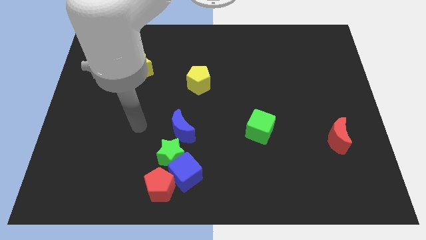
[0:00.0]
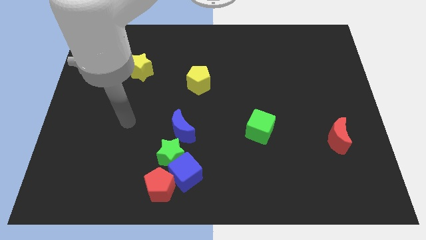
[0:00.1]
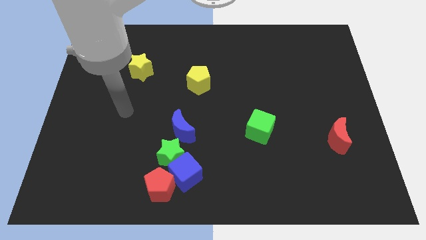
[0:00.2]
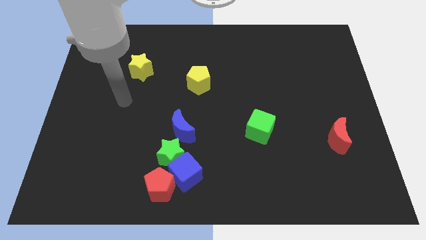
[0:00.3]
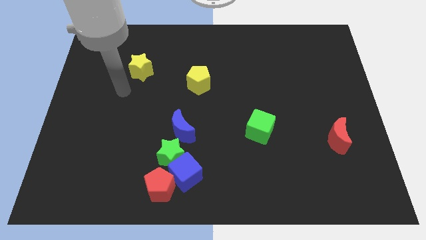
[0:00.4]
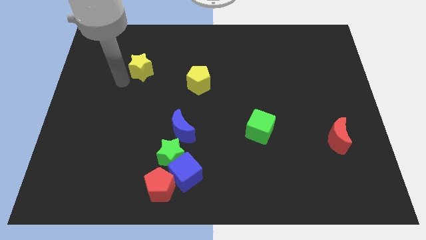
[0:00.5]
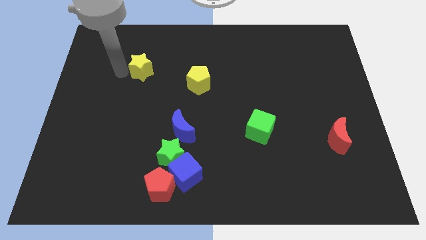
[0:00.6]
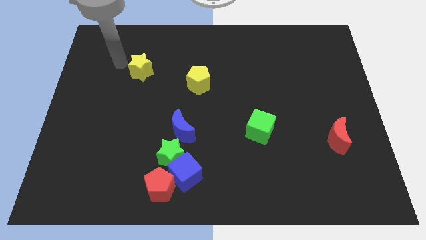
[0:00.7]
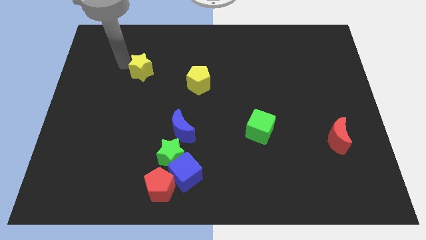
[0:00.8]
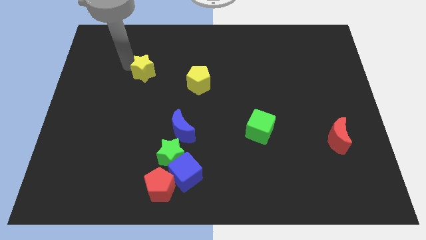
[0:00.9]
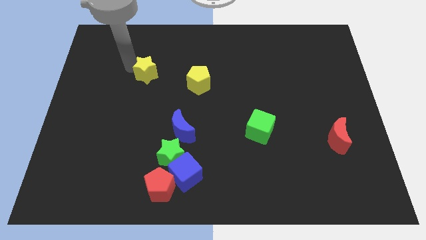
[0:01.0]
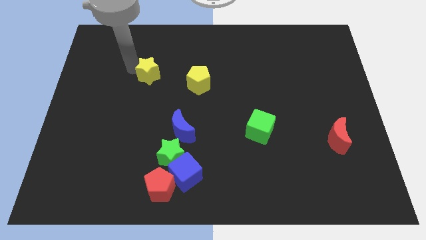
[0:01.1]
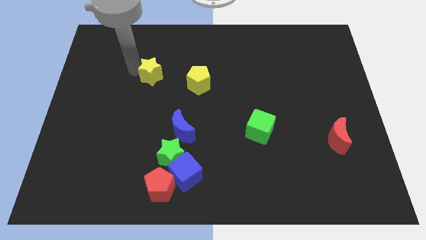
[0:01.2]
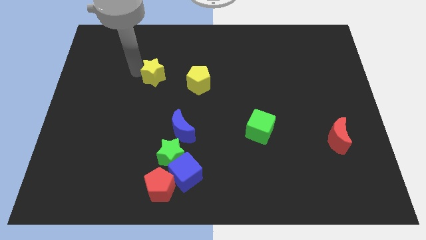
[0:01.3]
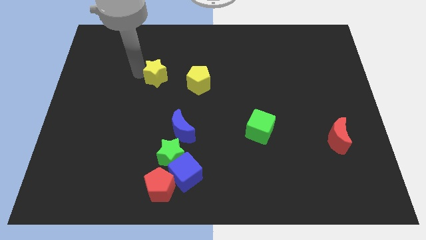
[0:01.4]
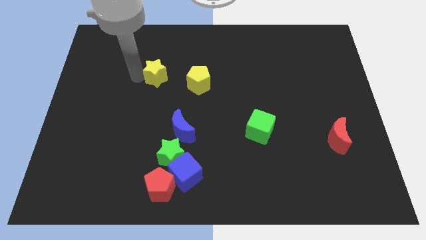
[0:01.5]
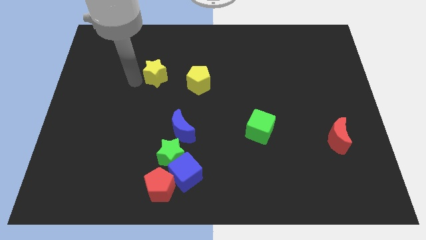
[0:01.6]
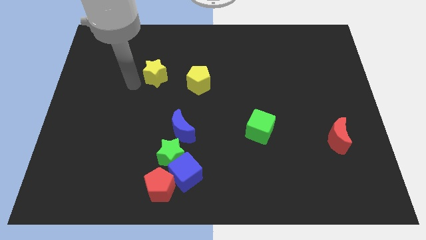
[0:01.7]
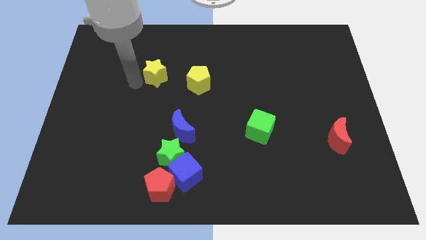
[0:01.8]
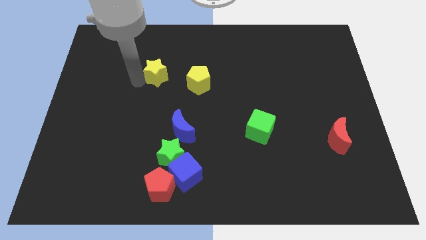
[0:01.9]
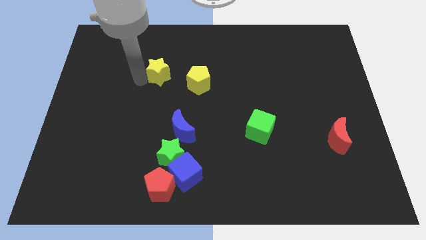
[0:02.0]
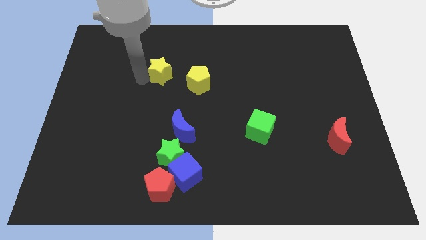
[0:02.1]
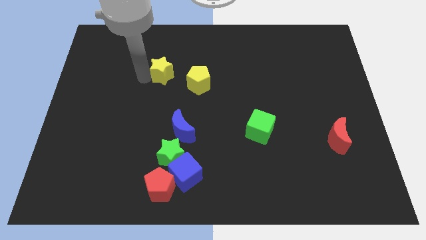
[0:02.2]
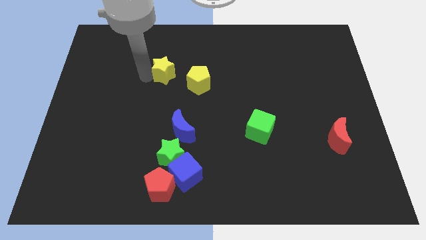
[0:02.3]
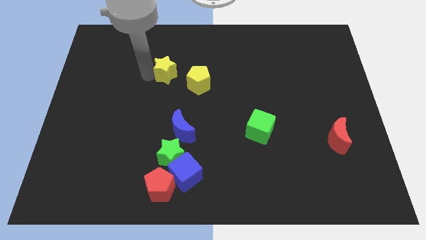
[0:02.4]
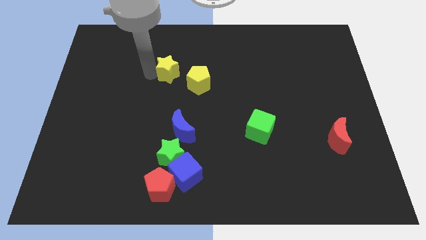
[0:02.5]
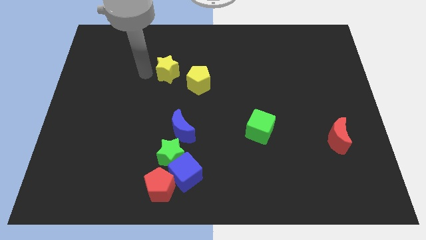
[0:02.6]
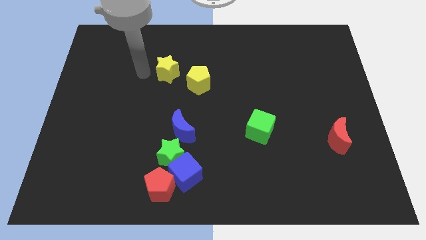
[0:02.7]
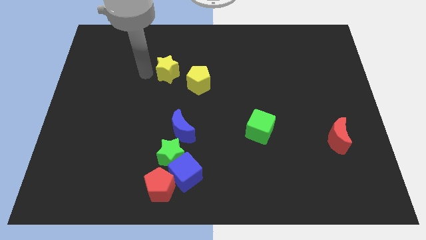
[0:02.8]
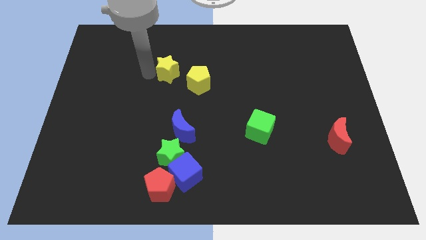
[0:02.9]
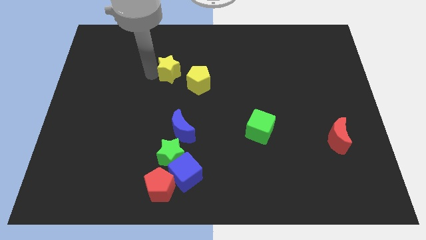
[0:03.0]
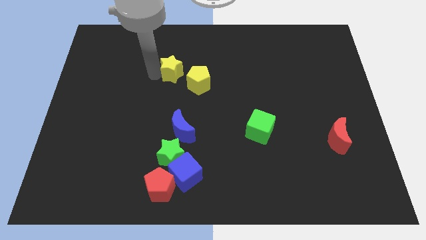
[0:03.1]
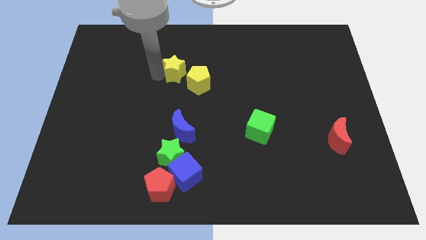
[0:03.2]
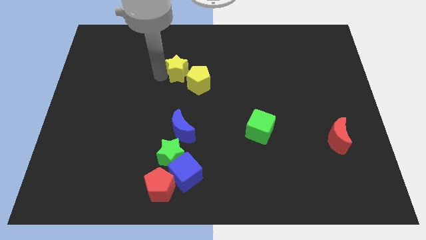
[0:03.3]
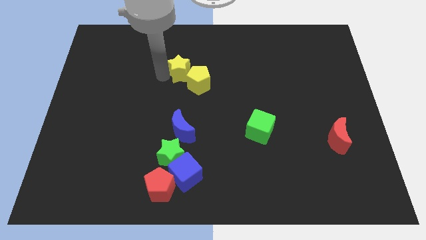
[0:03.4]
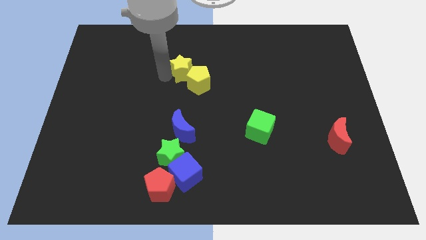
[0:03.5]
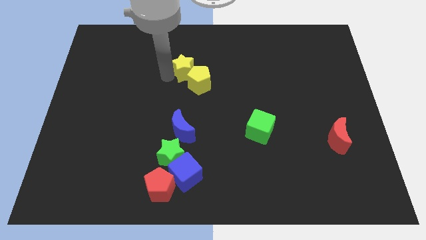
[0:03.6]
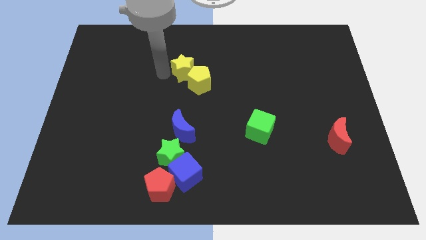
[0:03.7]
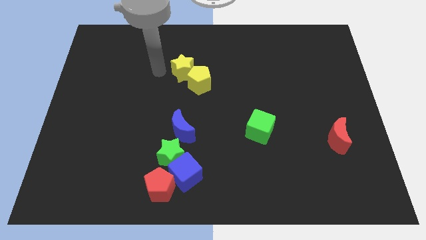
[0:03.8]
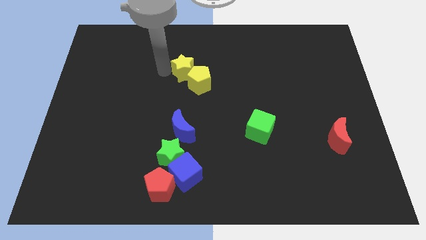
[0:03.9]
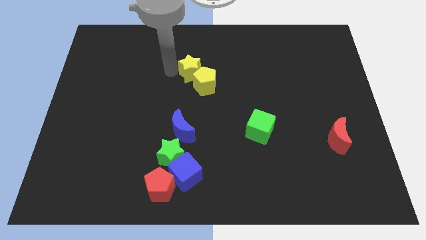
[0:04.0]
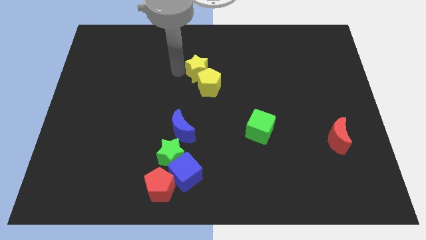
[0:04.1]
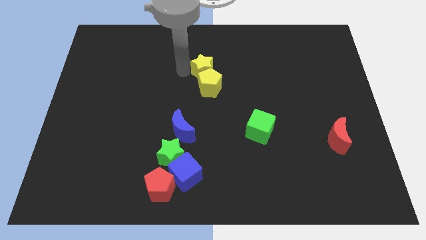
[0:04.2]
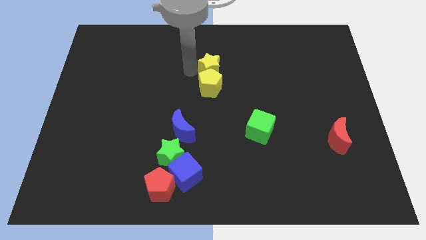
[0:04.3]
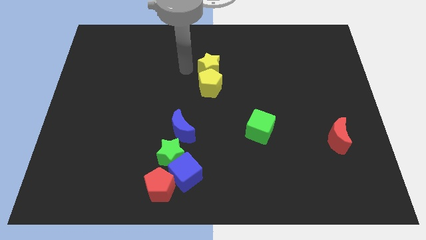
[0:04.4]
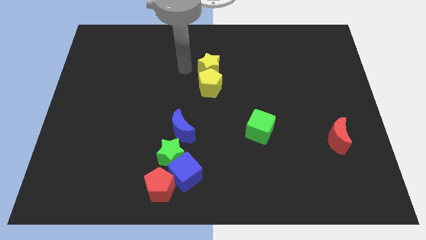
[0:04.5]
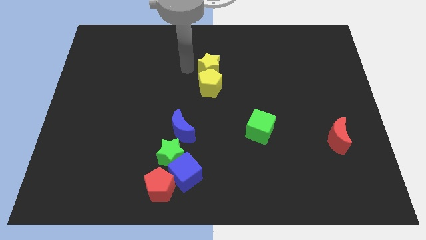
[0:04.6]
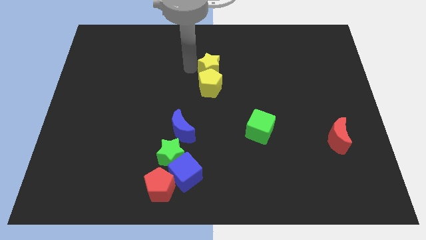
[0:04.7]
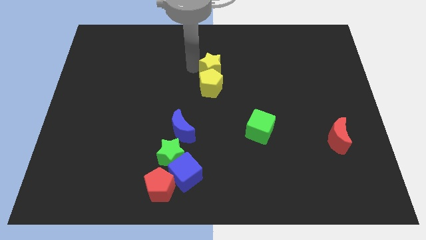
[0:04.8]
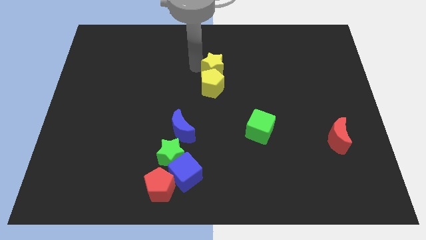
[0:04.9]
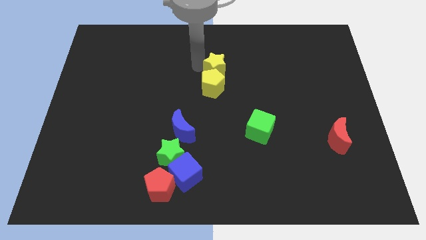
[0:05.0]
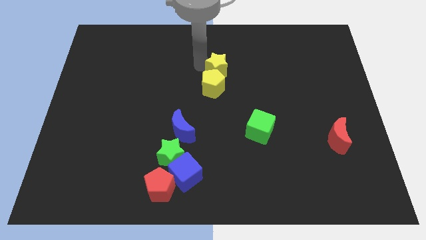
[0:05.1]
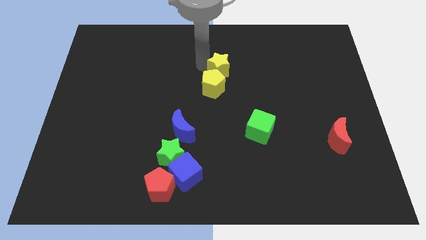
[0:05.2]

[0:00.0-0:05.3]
push the yellow star to the right

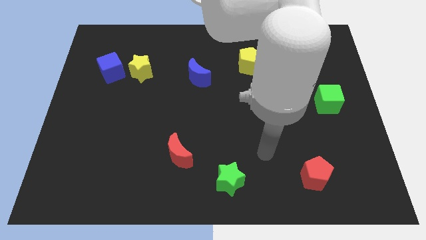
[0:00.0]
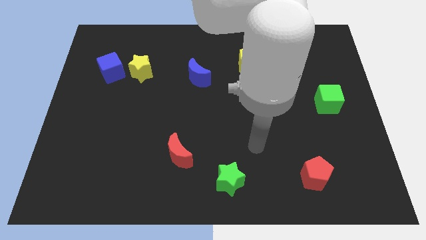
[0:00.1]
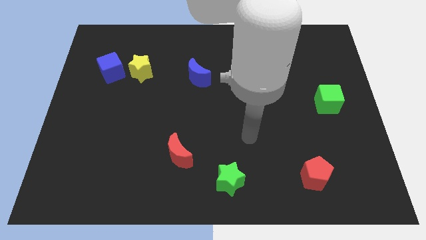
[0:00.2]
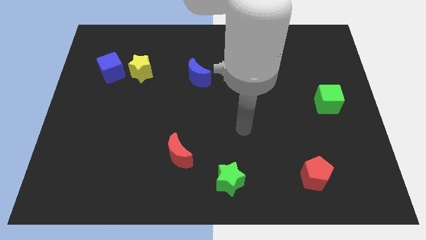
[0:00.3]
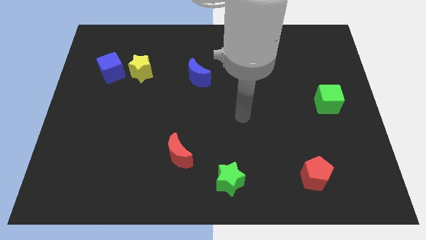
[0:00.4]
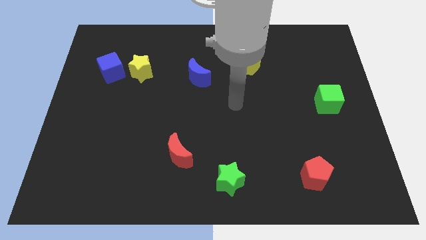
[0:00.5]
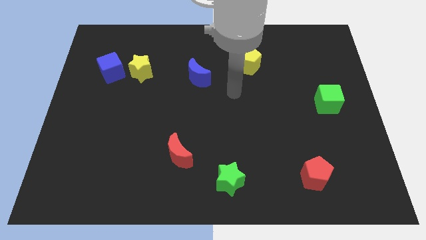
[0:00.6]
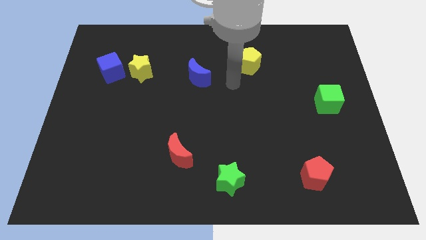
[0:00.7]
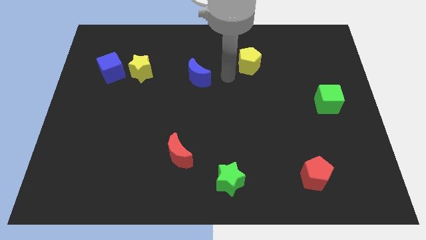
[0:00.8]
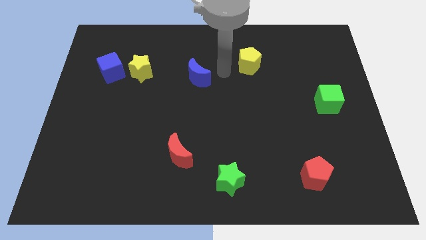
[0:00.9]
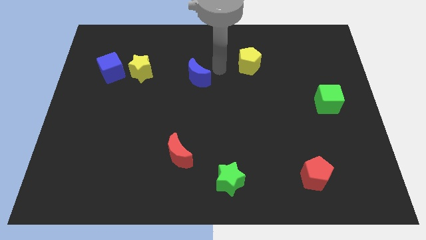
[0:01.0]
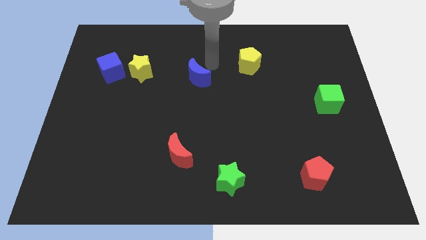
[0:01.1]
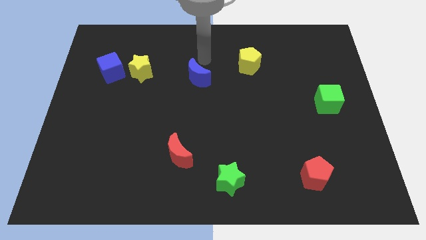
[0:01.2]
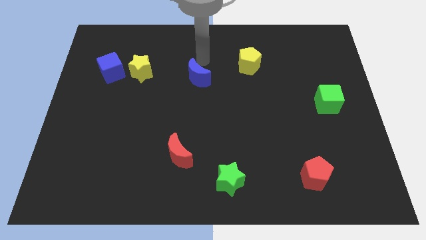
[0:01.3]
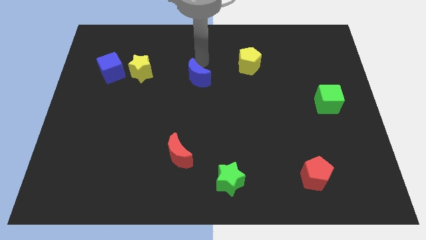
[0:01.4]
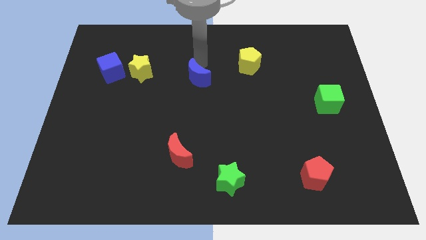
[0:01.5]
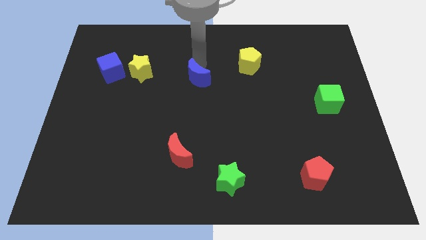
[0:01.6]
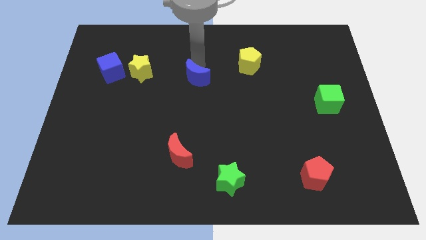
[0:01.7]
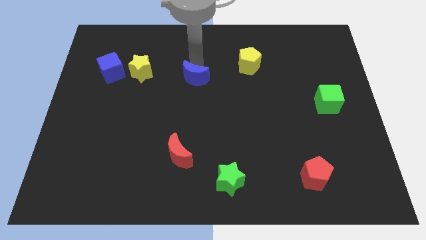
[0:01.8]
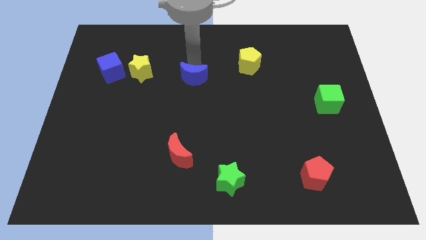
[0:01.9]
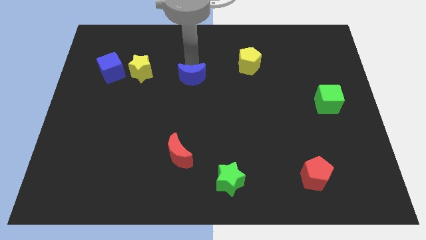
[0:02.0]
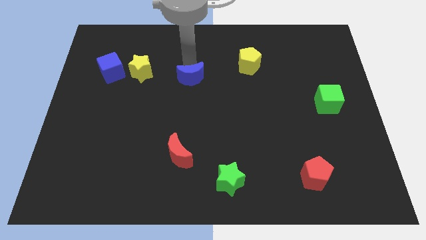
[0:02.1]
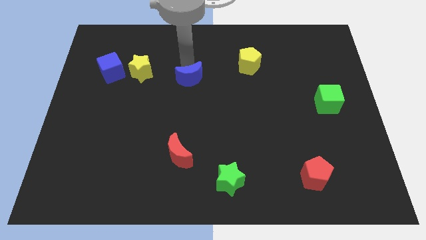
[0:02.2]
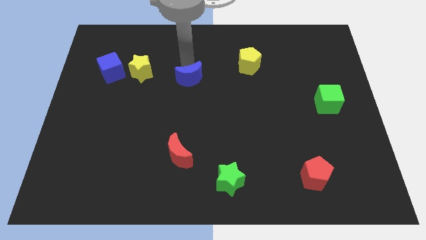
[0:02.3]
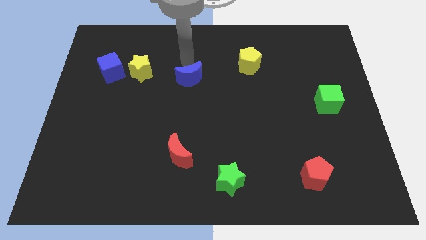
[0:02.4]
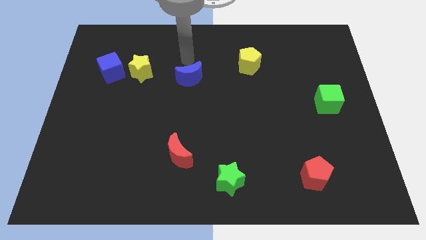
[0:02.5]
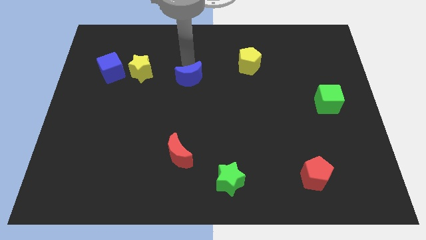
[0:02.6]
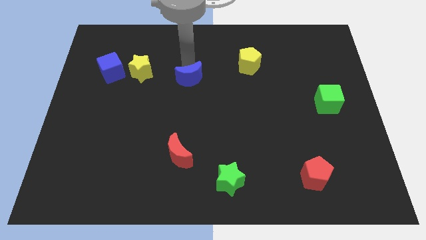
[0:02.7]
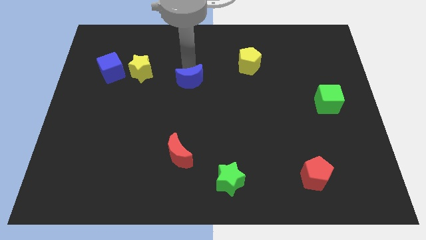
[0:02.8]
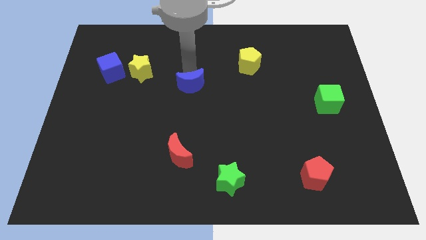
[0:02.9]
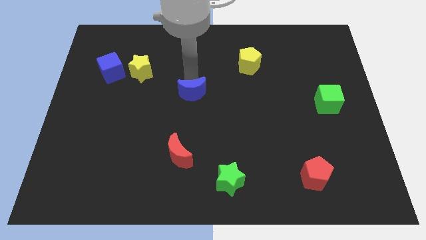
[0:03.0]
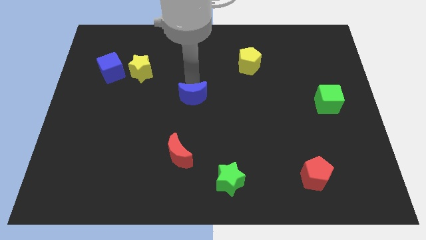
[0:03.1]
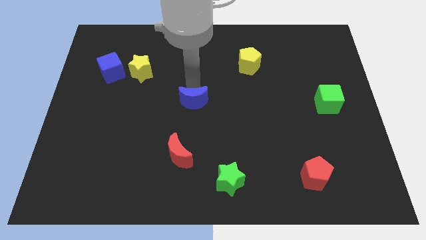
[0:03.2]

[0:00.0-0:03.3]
slightly slide the blue moon down
